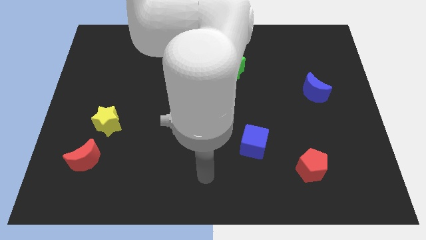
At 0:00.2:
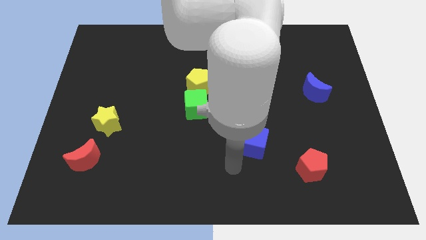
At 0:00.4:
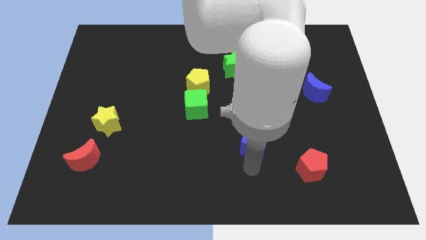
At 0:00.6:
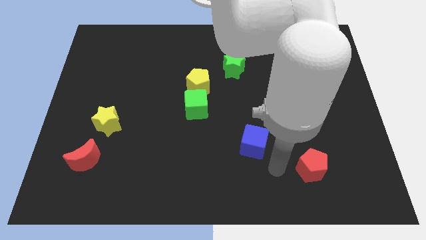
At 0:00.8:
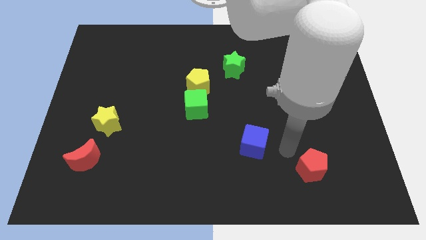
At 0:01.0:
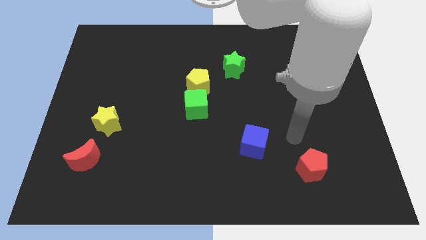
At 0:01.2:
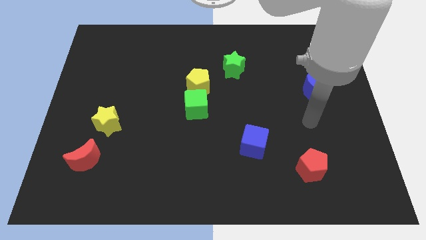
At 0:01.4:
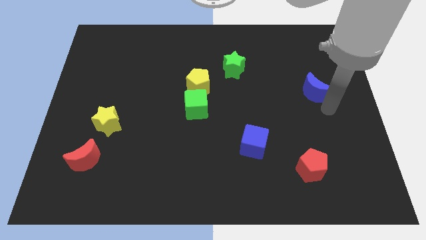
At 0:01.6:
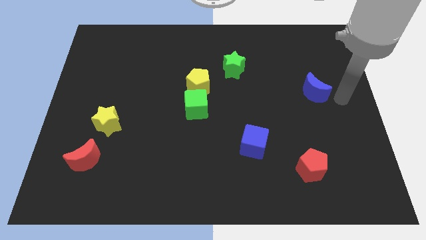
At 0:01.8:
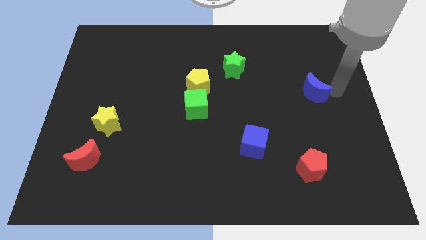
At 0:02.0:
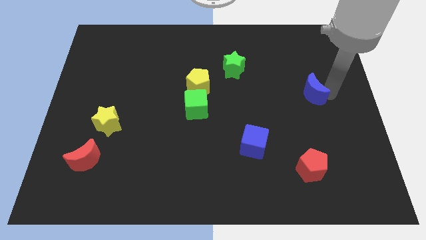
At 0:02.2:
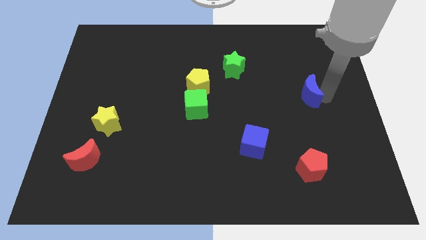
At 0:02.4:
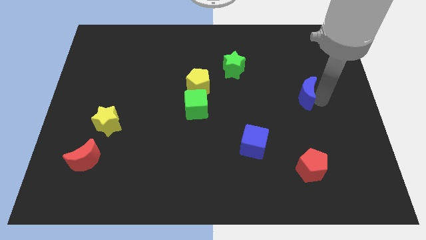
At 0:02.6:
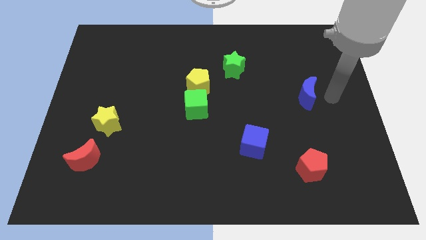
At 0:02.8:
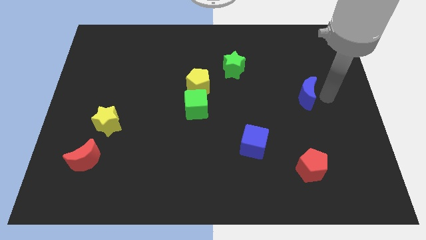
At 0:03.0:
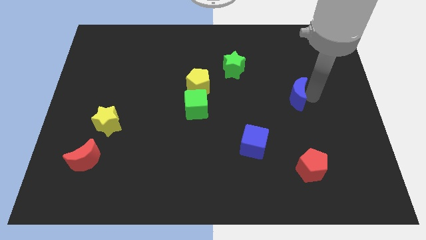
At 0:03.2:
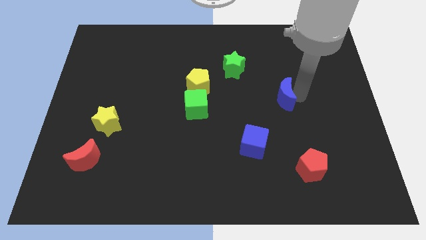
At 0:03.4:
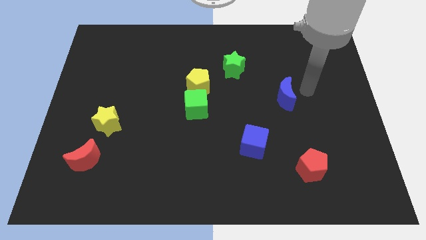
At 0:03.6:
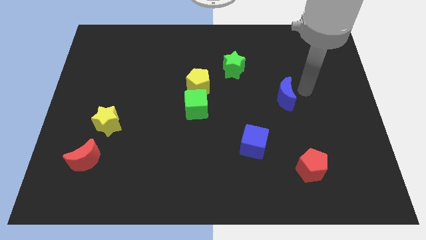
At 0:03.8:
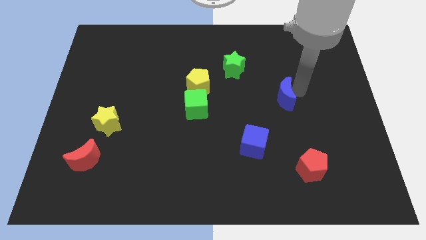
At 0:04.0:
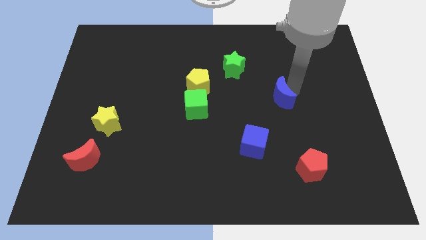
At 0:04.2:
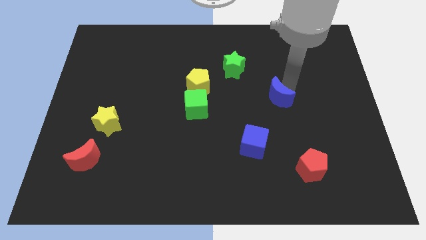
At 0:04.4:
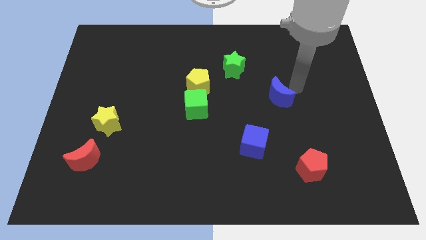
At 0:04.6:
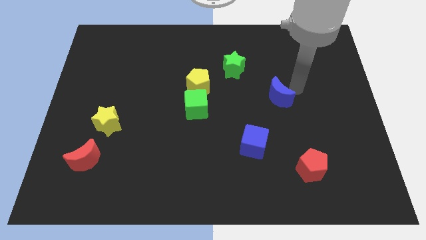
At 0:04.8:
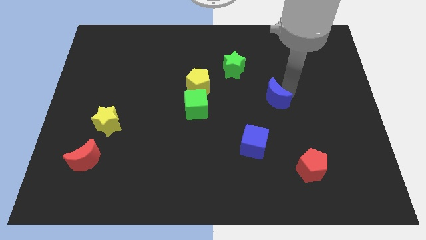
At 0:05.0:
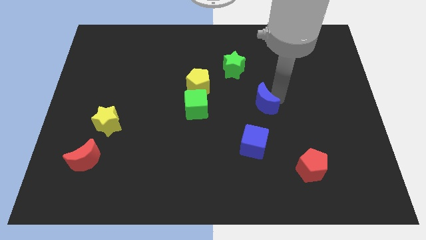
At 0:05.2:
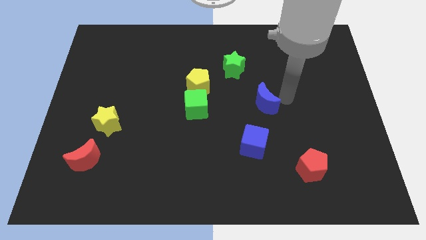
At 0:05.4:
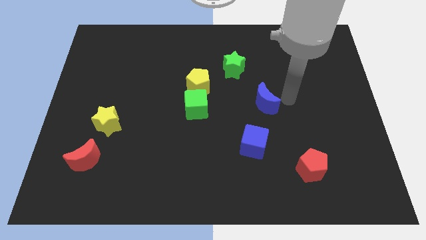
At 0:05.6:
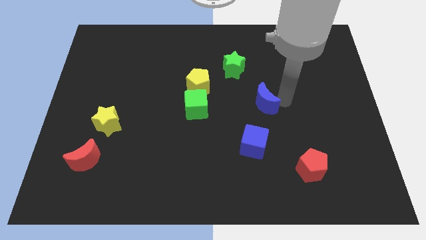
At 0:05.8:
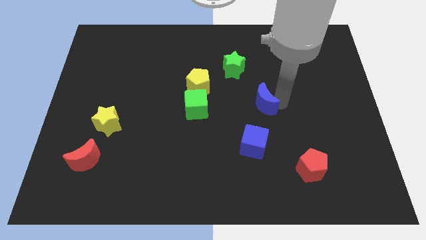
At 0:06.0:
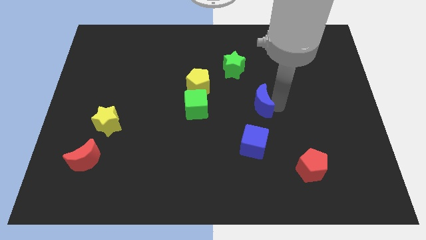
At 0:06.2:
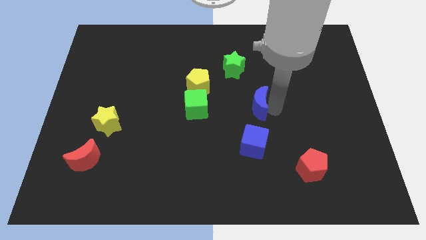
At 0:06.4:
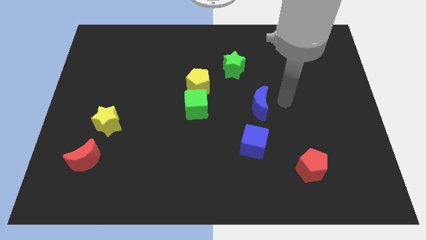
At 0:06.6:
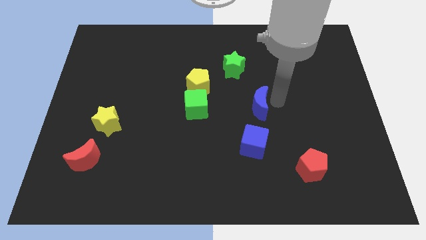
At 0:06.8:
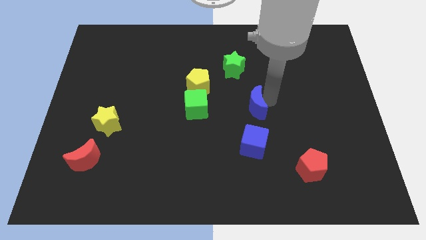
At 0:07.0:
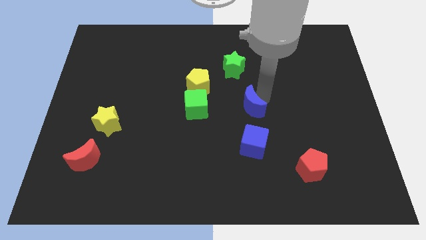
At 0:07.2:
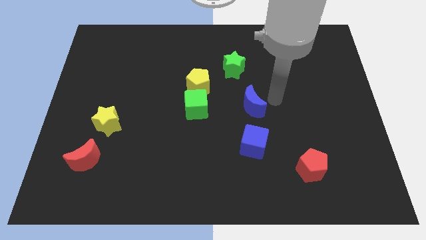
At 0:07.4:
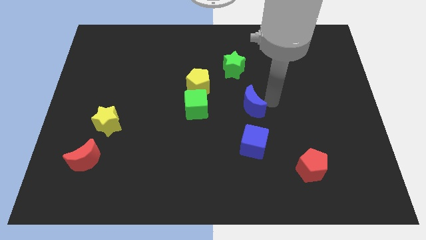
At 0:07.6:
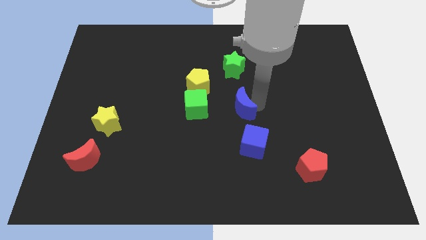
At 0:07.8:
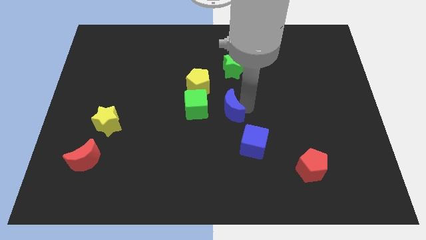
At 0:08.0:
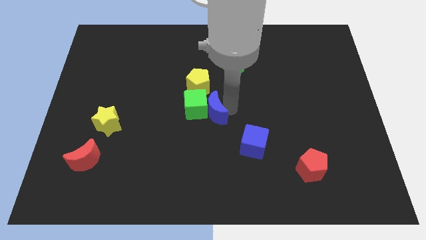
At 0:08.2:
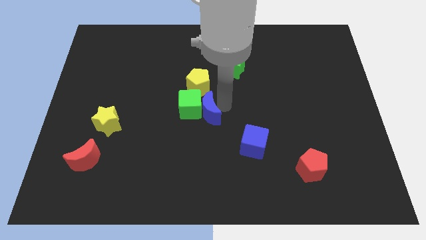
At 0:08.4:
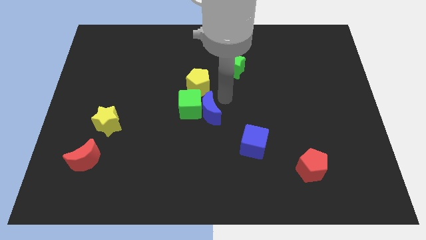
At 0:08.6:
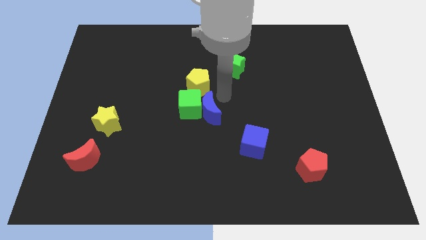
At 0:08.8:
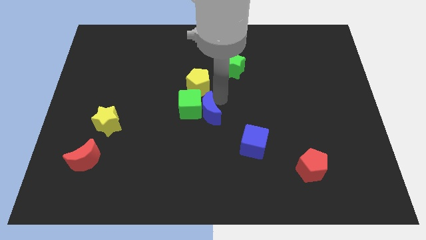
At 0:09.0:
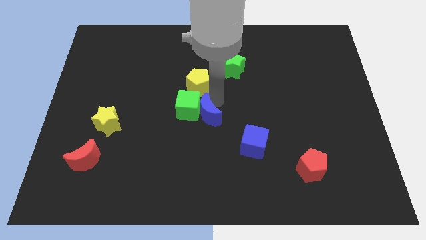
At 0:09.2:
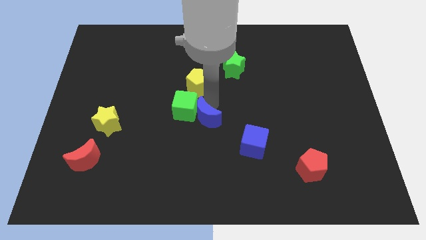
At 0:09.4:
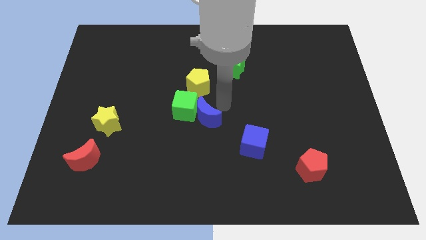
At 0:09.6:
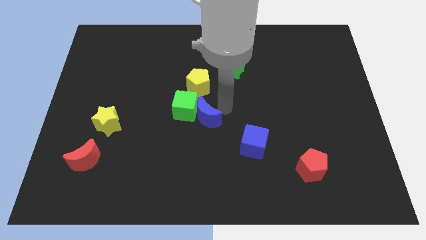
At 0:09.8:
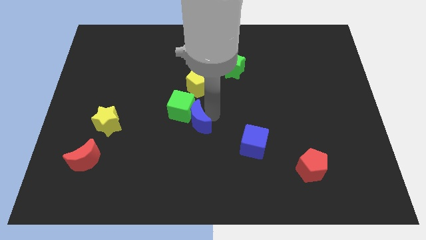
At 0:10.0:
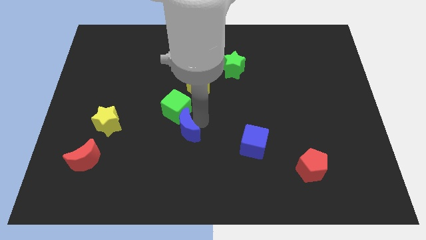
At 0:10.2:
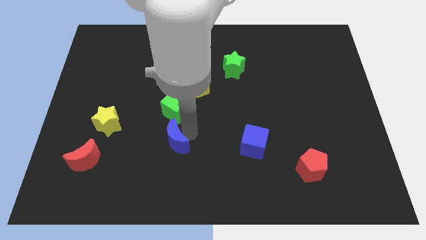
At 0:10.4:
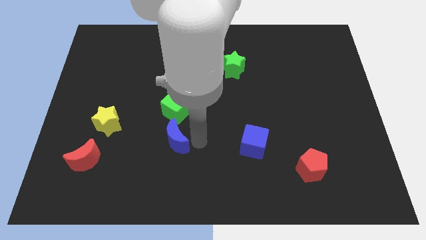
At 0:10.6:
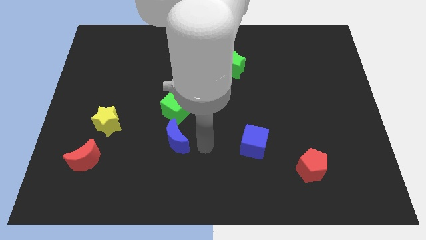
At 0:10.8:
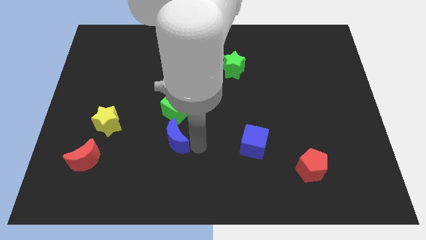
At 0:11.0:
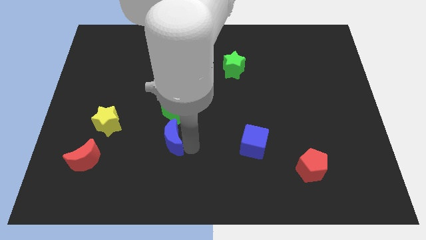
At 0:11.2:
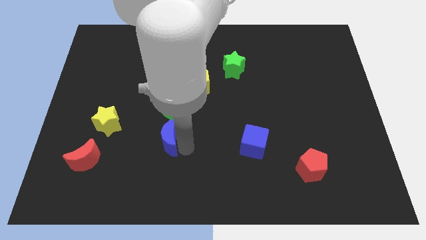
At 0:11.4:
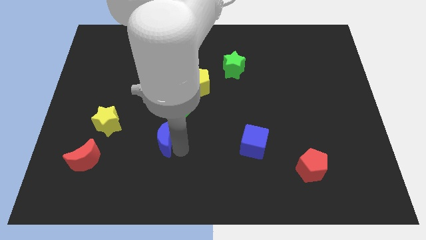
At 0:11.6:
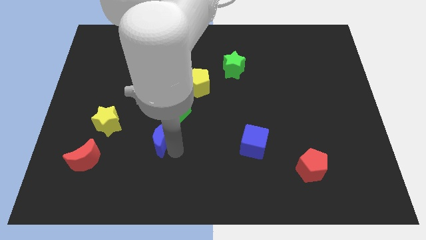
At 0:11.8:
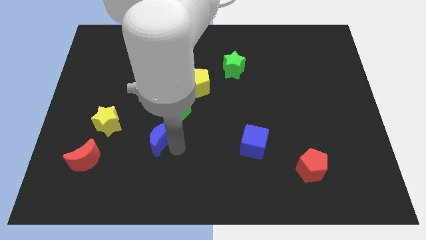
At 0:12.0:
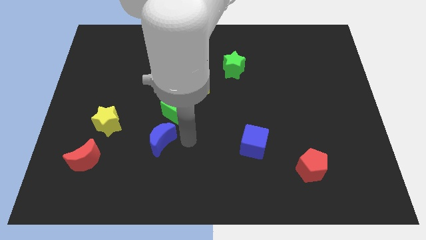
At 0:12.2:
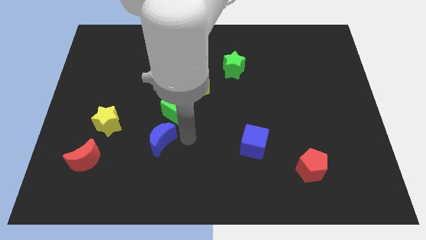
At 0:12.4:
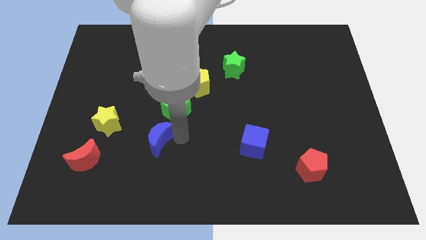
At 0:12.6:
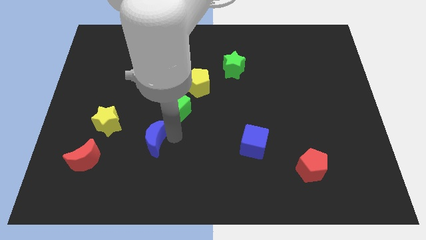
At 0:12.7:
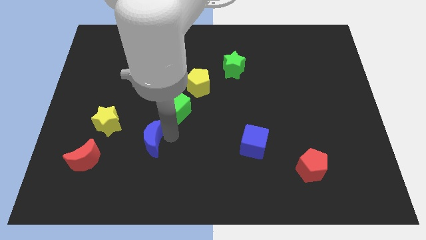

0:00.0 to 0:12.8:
slide the blue moon diagonally down and to the right of the yellow star
